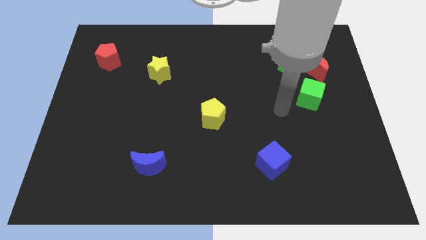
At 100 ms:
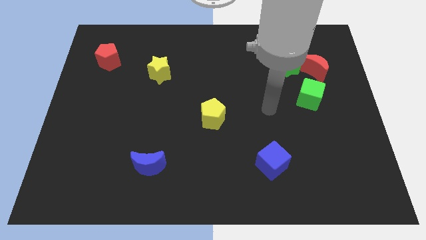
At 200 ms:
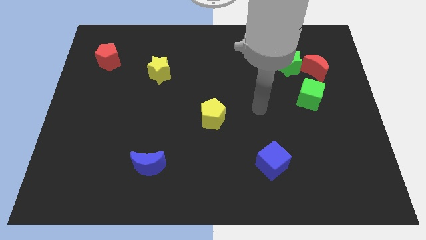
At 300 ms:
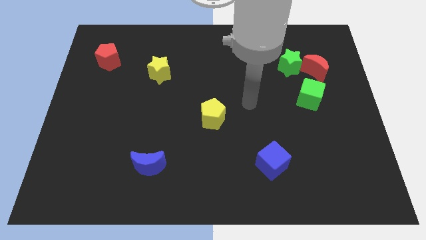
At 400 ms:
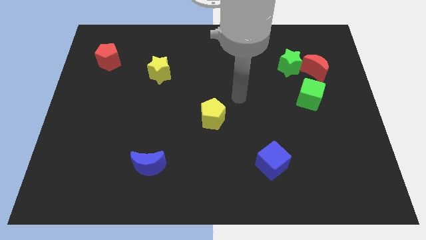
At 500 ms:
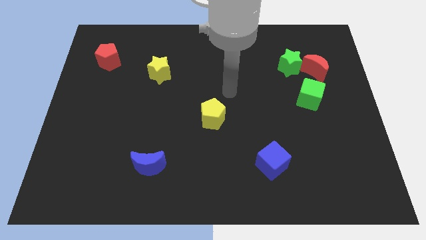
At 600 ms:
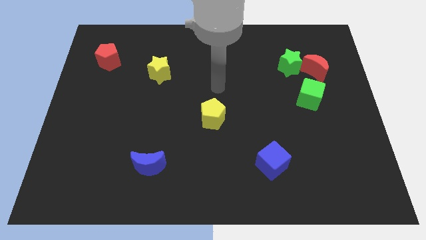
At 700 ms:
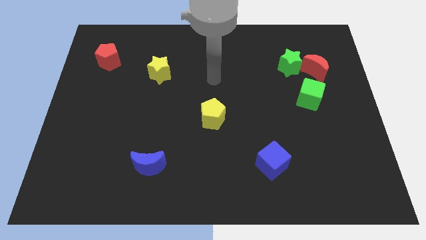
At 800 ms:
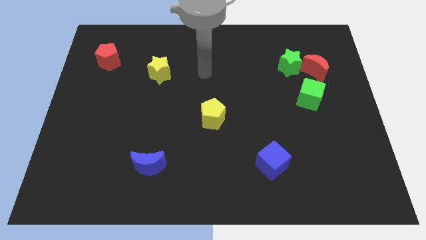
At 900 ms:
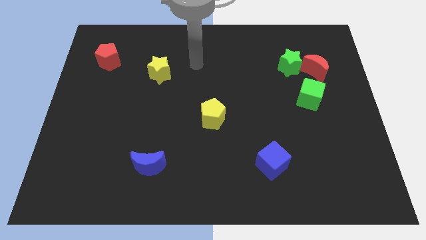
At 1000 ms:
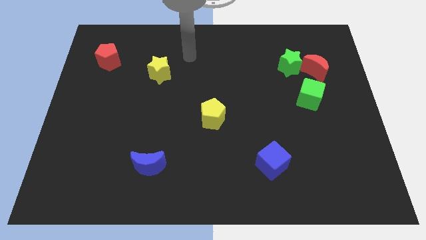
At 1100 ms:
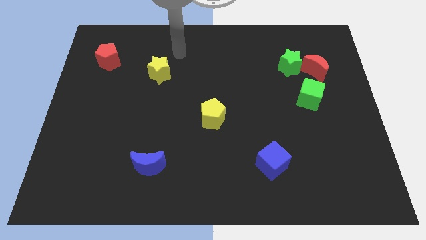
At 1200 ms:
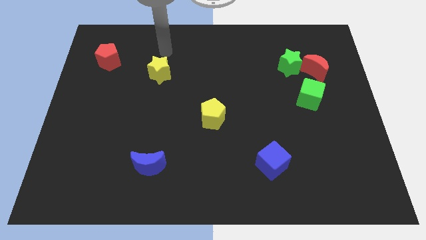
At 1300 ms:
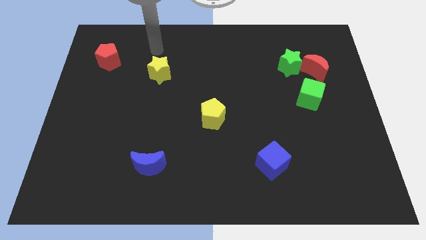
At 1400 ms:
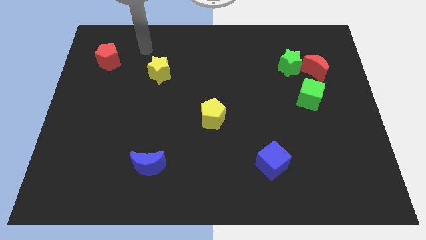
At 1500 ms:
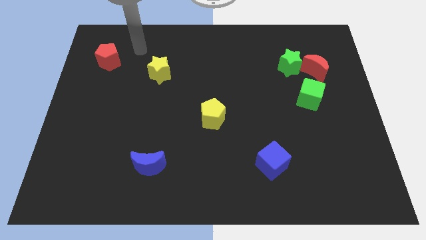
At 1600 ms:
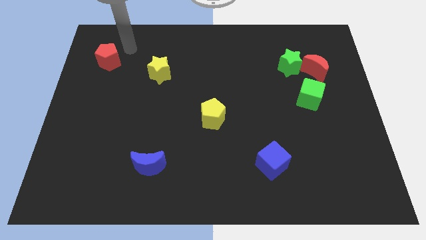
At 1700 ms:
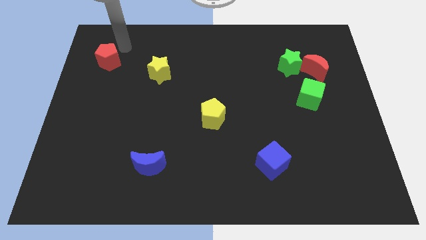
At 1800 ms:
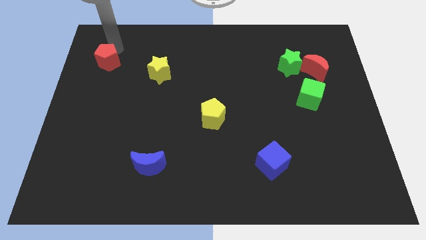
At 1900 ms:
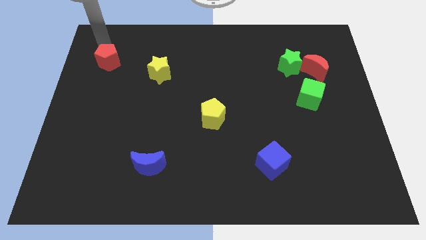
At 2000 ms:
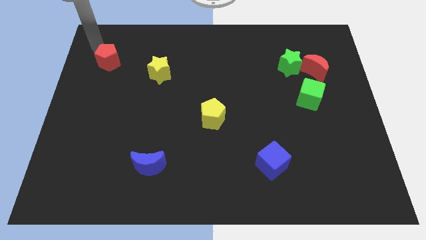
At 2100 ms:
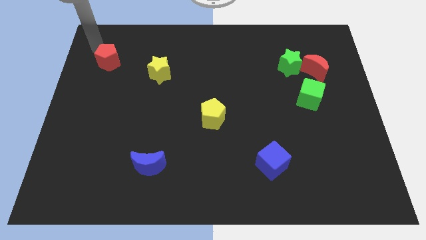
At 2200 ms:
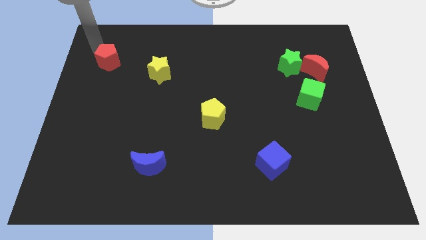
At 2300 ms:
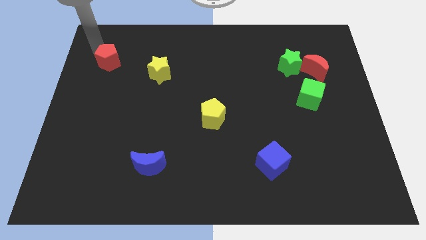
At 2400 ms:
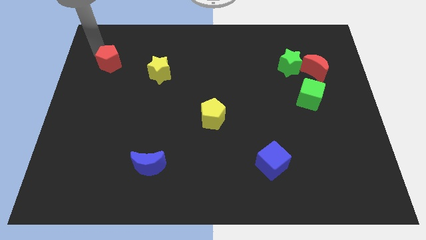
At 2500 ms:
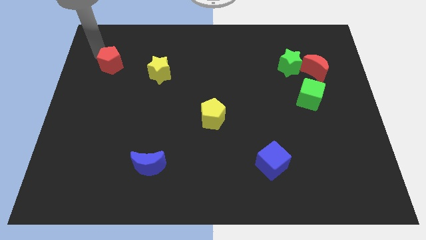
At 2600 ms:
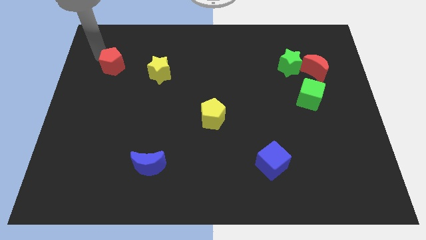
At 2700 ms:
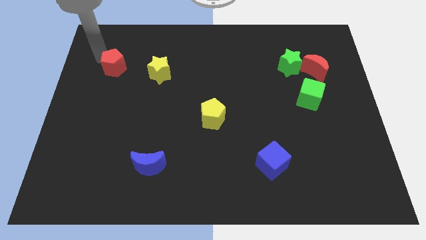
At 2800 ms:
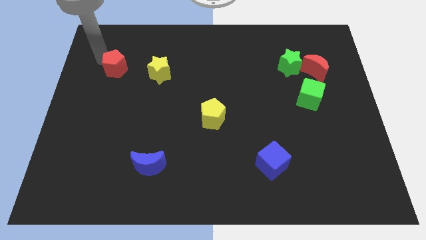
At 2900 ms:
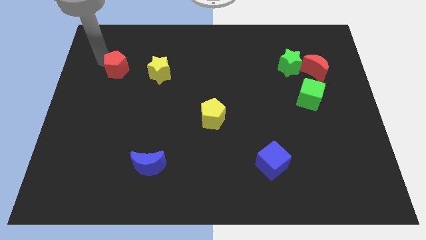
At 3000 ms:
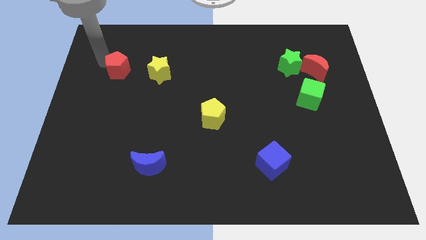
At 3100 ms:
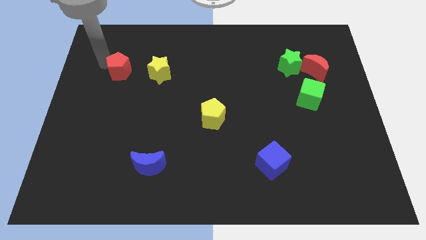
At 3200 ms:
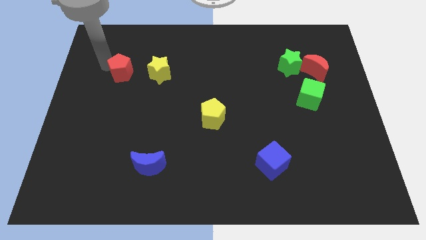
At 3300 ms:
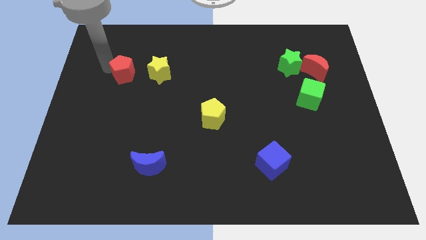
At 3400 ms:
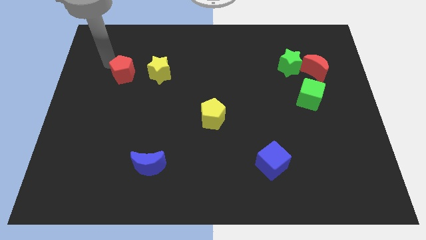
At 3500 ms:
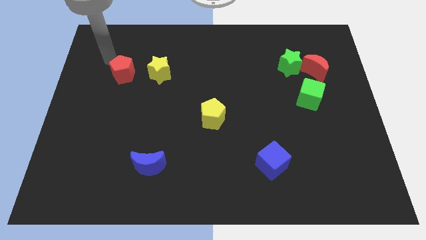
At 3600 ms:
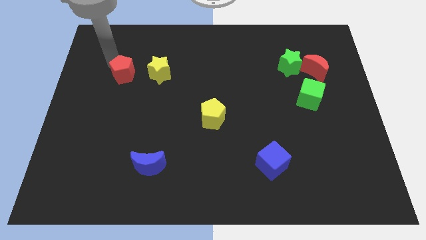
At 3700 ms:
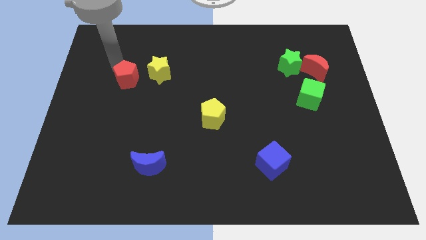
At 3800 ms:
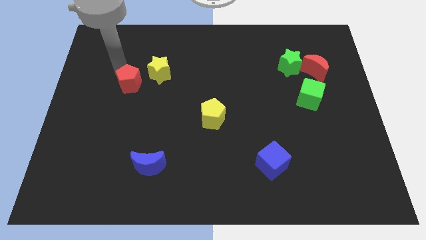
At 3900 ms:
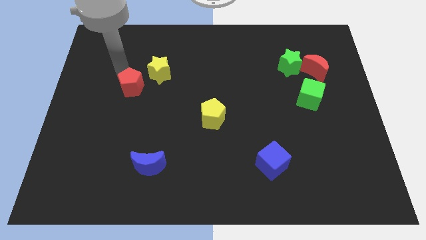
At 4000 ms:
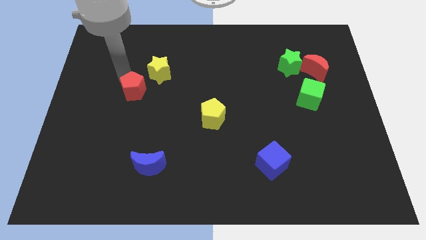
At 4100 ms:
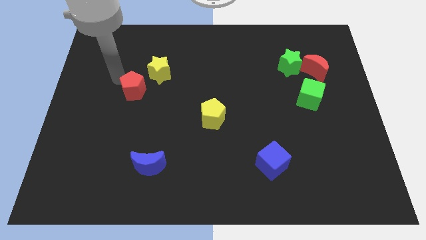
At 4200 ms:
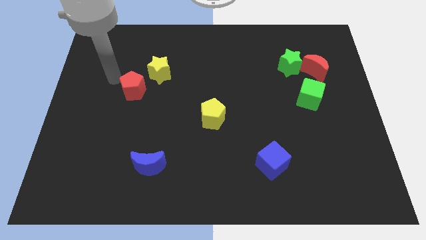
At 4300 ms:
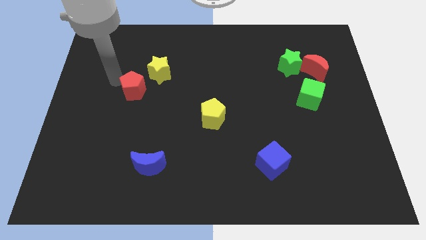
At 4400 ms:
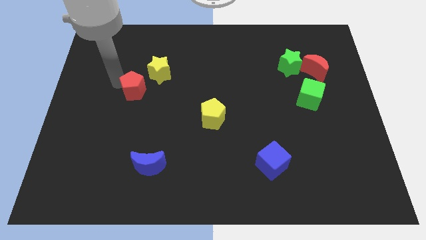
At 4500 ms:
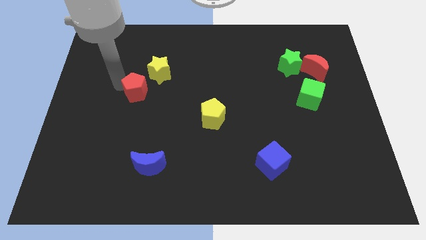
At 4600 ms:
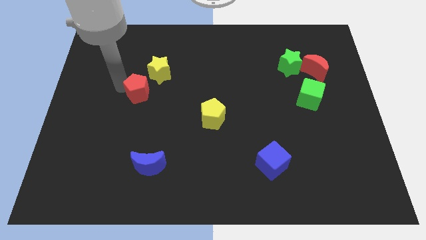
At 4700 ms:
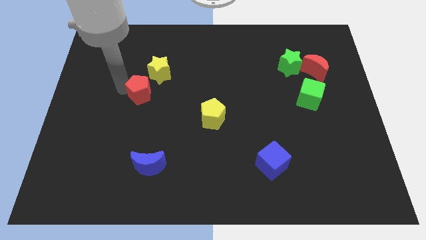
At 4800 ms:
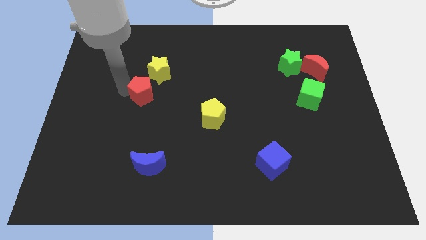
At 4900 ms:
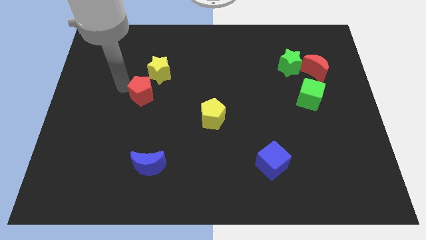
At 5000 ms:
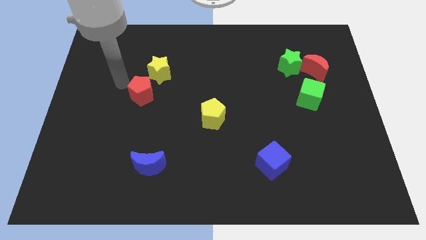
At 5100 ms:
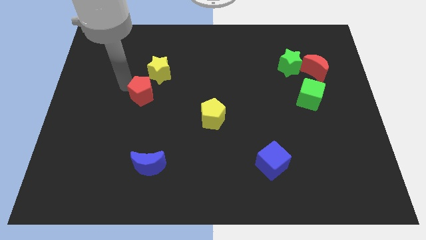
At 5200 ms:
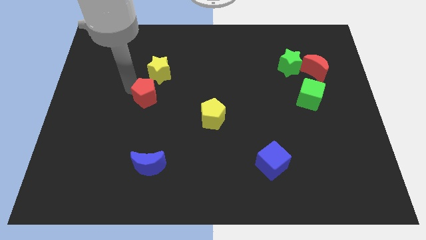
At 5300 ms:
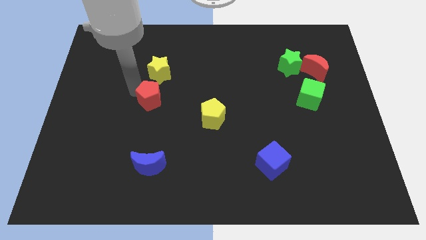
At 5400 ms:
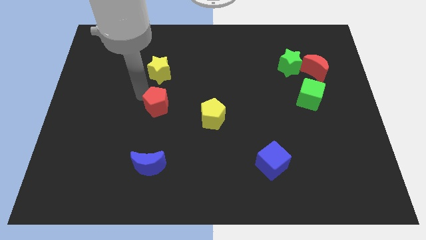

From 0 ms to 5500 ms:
move the red pentagon down and to the right diagonally

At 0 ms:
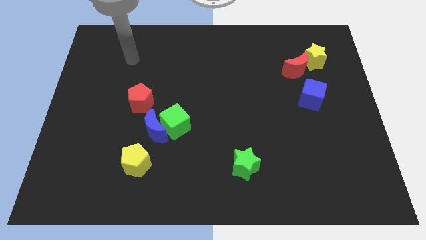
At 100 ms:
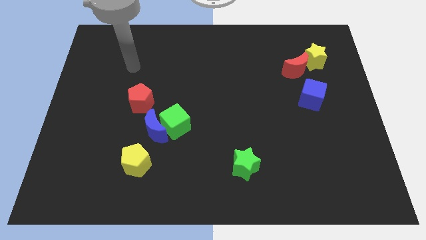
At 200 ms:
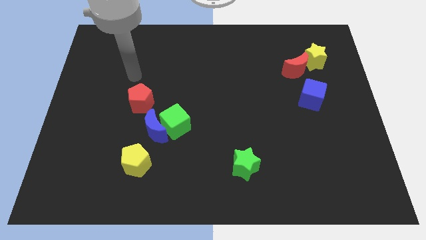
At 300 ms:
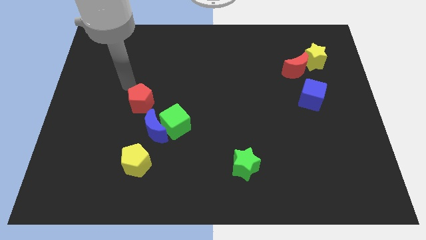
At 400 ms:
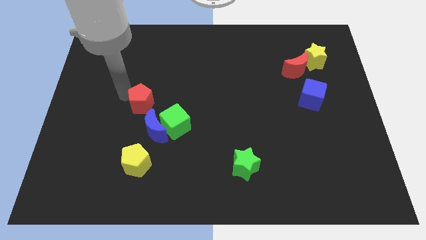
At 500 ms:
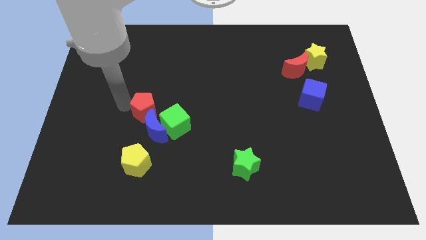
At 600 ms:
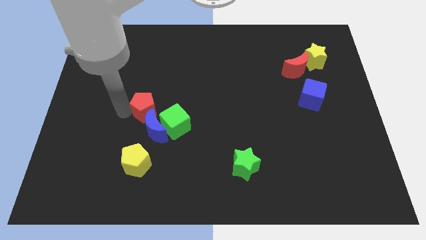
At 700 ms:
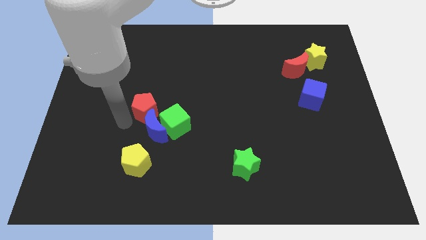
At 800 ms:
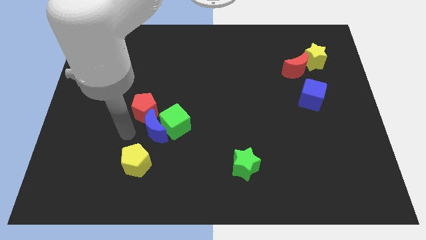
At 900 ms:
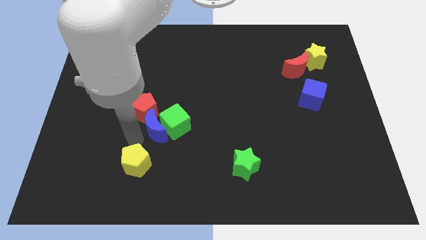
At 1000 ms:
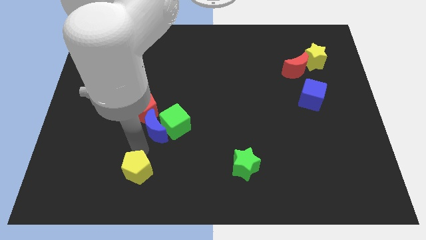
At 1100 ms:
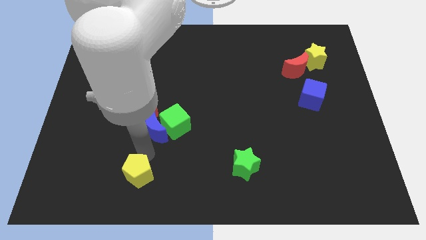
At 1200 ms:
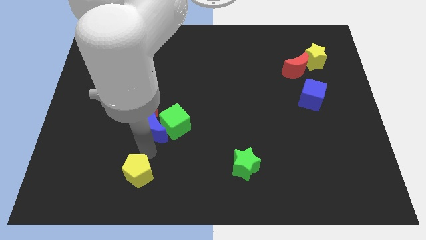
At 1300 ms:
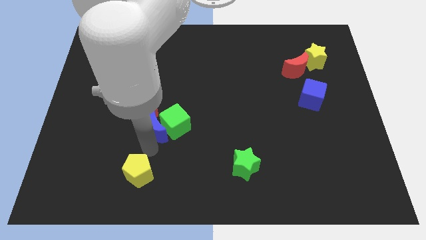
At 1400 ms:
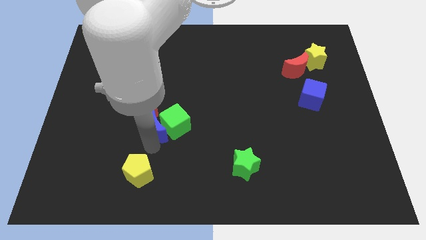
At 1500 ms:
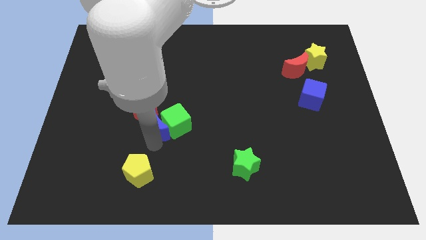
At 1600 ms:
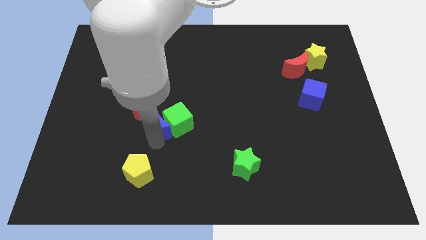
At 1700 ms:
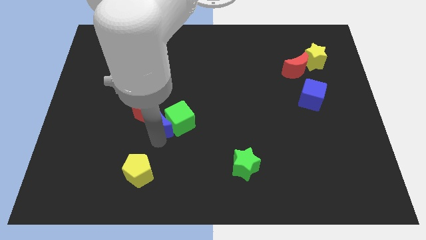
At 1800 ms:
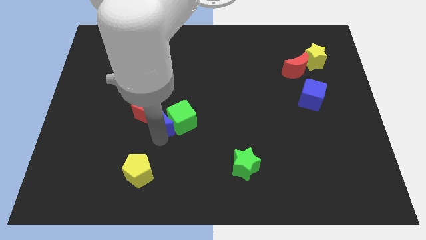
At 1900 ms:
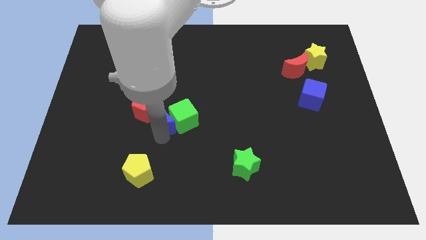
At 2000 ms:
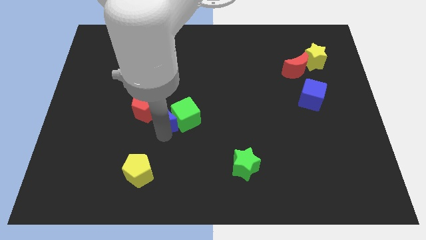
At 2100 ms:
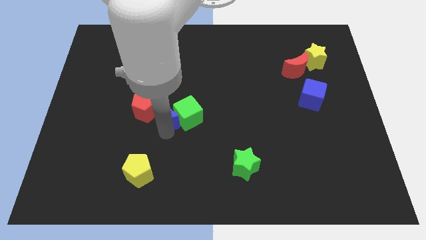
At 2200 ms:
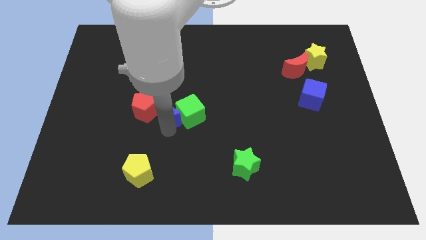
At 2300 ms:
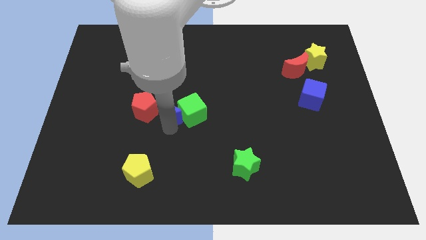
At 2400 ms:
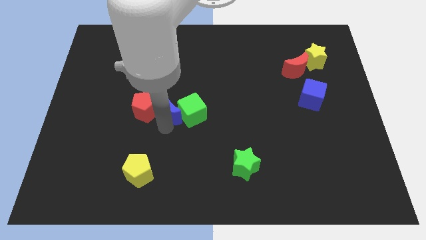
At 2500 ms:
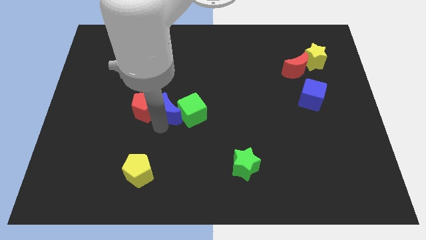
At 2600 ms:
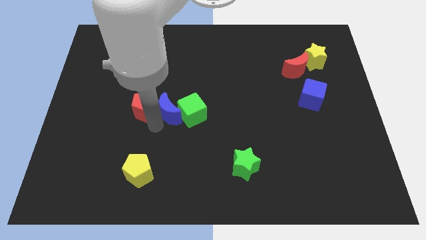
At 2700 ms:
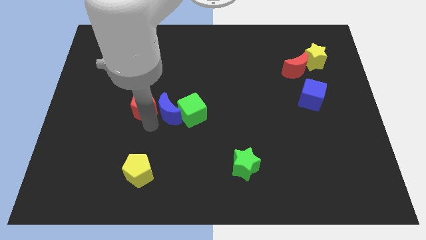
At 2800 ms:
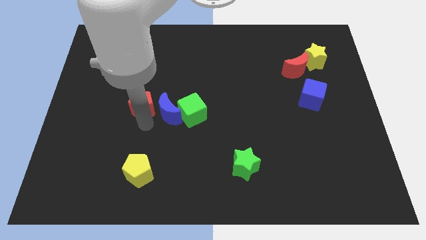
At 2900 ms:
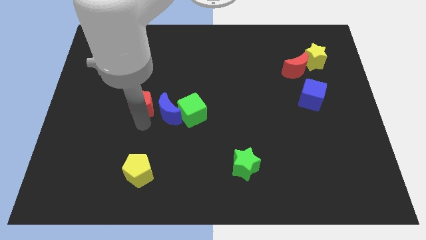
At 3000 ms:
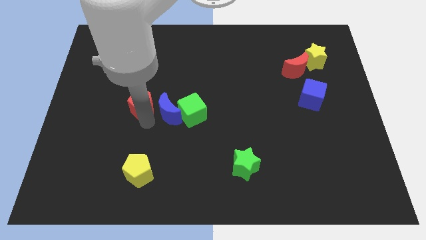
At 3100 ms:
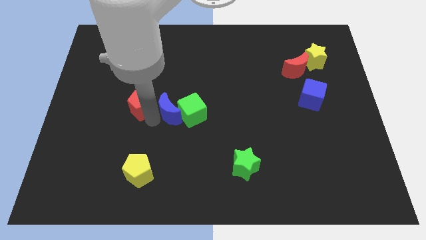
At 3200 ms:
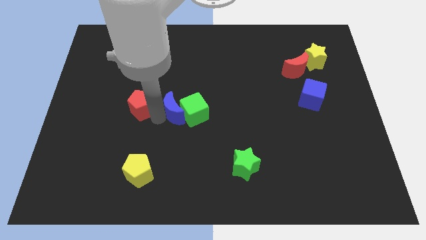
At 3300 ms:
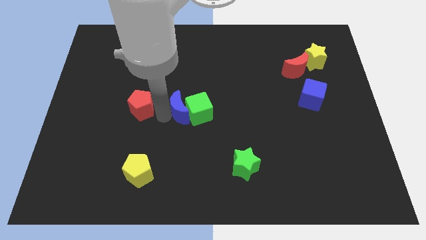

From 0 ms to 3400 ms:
slide the blue moon slightly diagonally up and to the right
